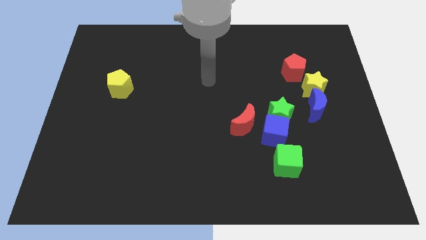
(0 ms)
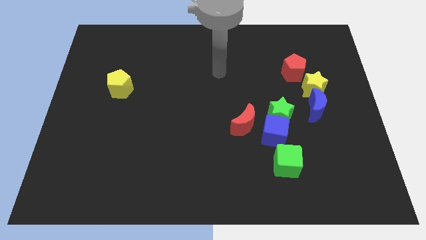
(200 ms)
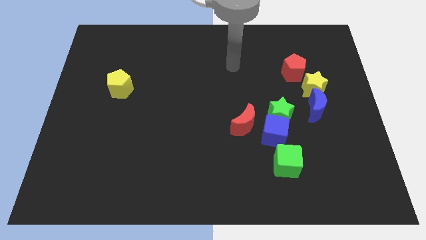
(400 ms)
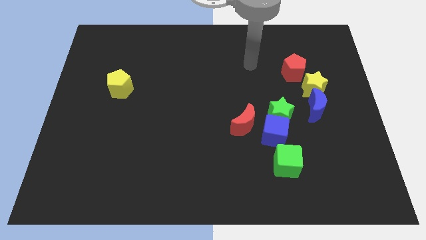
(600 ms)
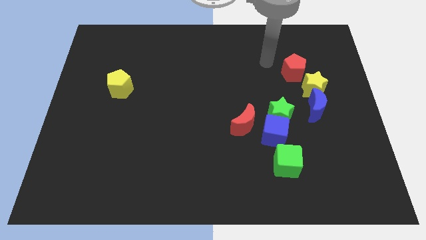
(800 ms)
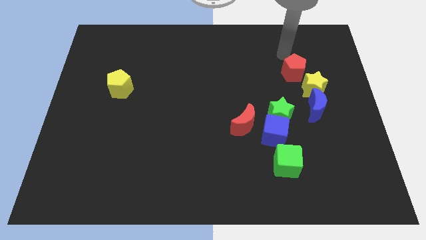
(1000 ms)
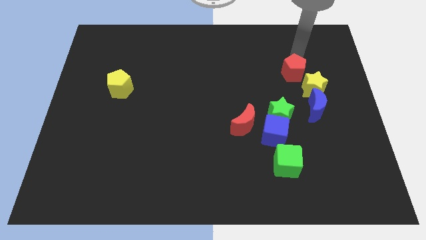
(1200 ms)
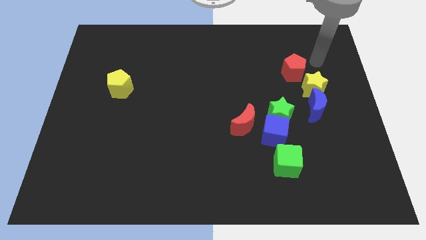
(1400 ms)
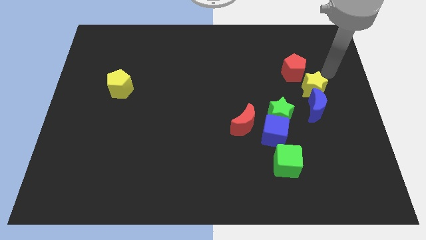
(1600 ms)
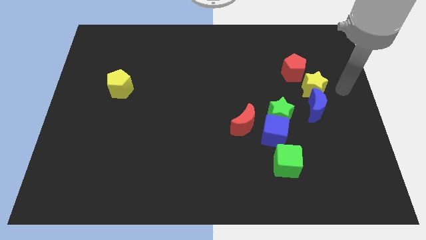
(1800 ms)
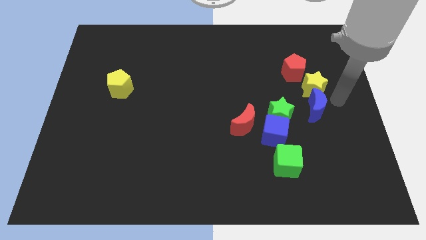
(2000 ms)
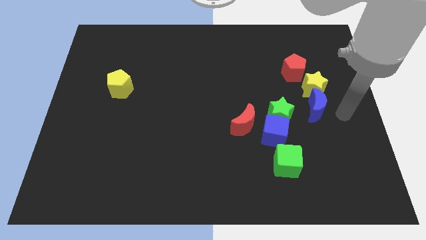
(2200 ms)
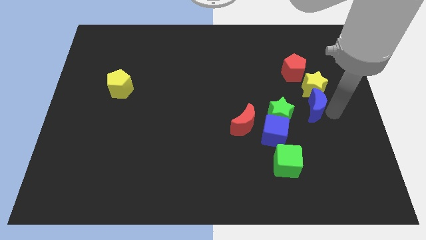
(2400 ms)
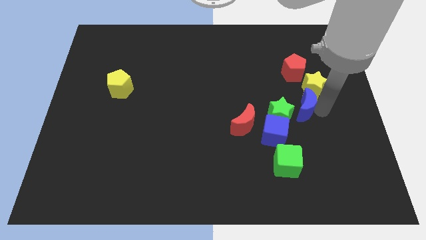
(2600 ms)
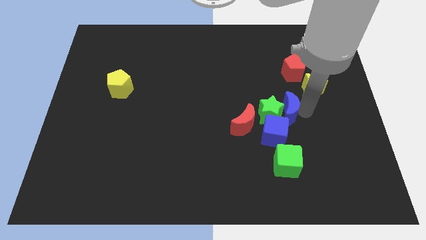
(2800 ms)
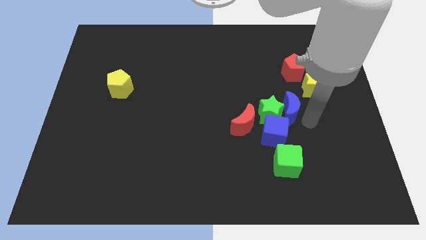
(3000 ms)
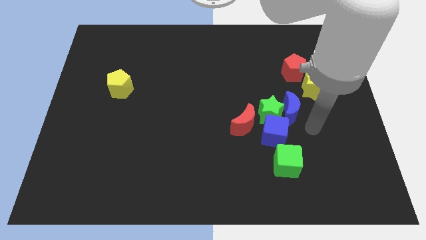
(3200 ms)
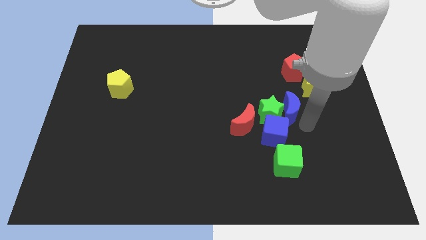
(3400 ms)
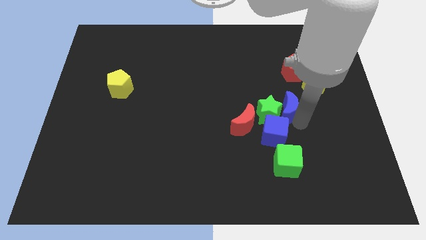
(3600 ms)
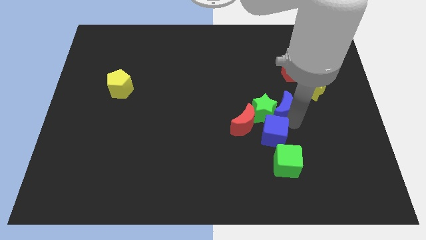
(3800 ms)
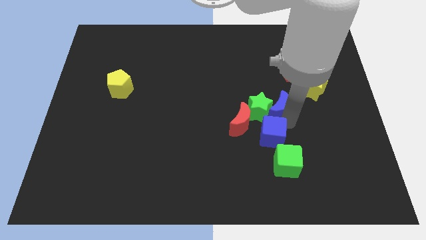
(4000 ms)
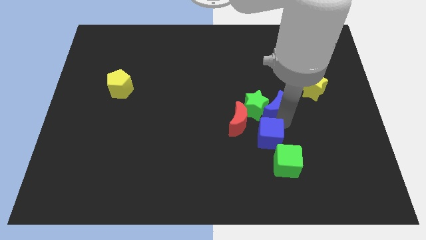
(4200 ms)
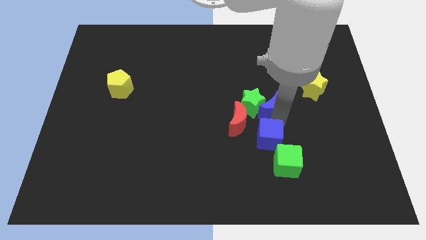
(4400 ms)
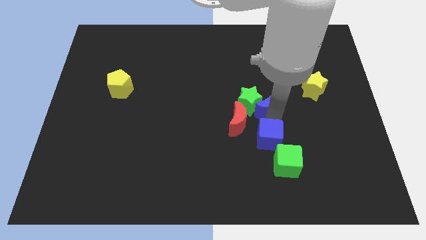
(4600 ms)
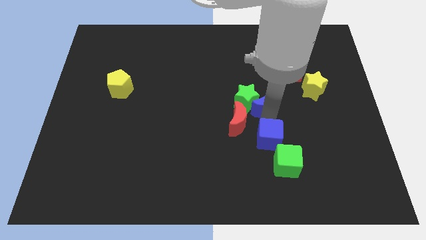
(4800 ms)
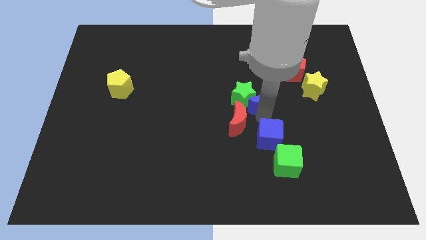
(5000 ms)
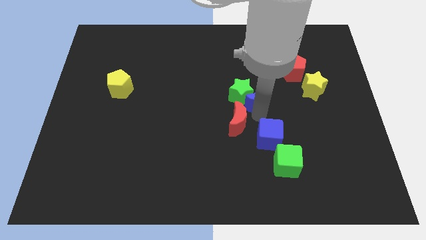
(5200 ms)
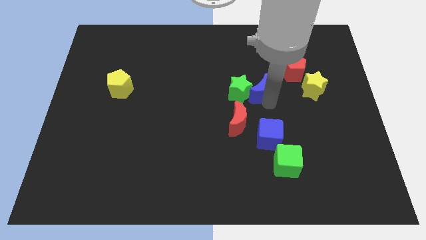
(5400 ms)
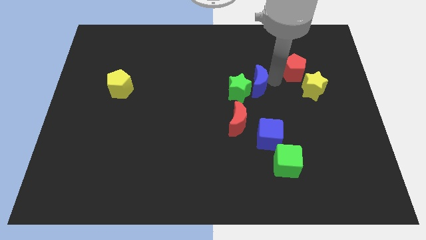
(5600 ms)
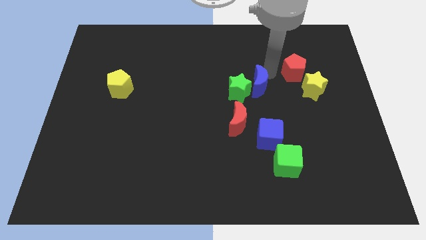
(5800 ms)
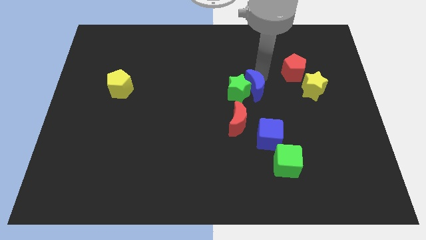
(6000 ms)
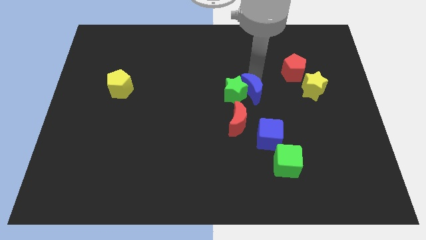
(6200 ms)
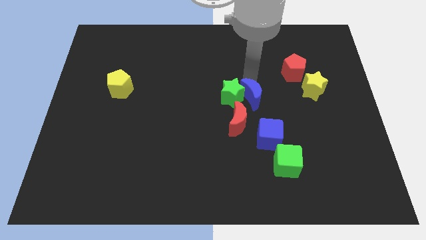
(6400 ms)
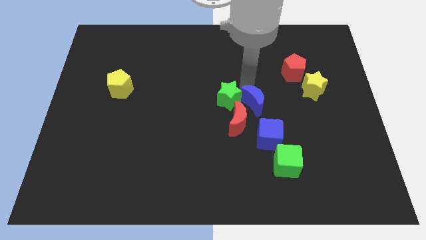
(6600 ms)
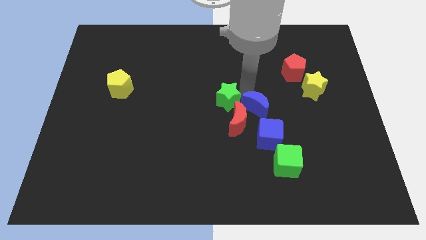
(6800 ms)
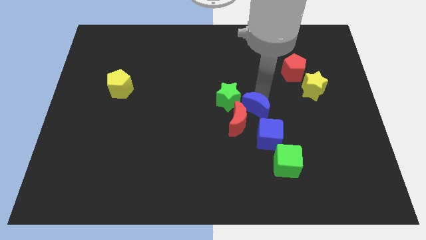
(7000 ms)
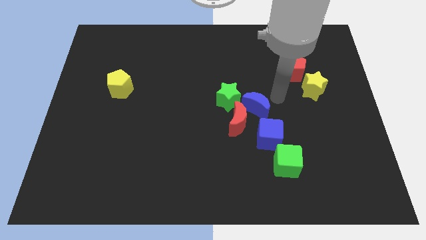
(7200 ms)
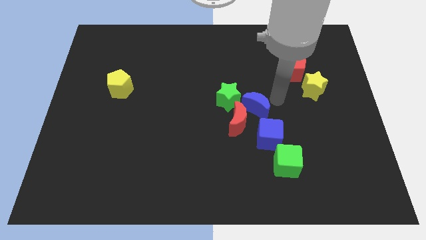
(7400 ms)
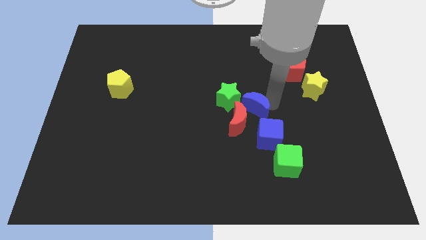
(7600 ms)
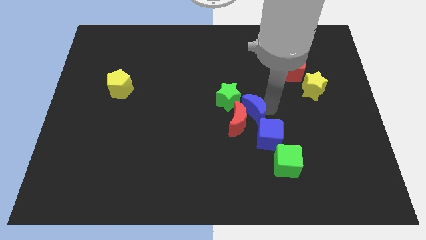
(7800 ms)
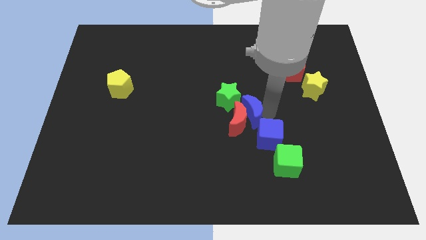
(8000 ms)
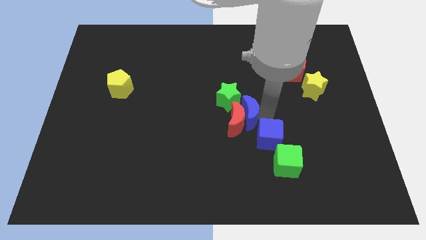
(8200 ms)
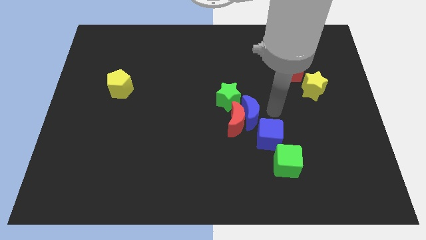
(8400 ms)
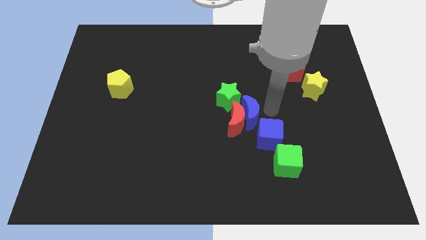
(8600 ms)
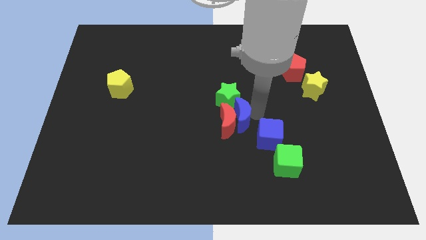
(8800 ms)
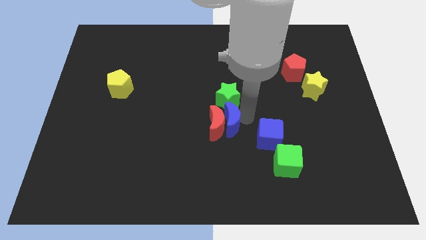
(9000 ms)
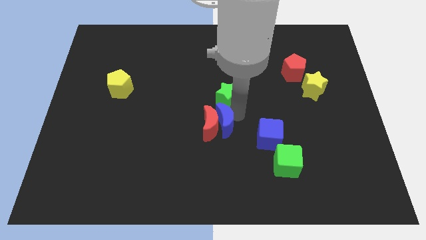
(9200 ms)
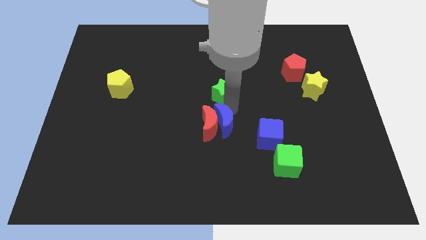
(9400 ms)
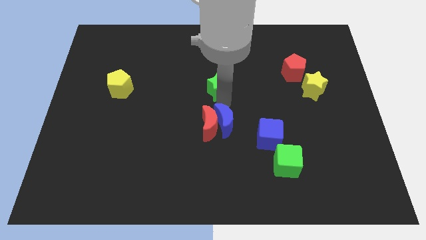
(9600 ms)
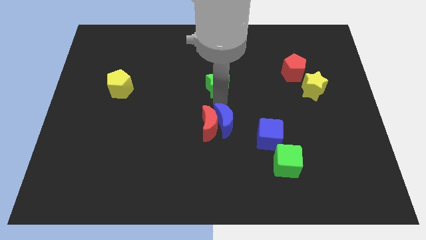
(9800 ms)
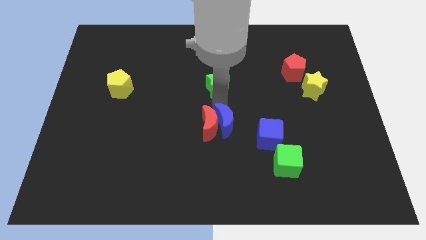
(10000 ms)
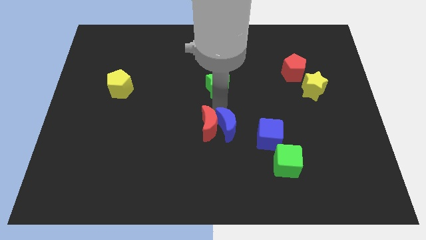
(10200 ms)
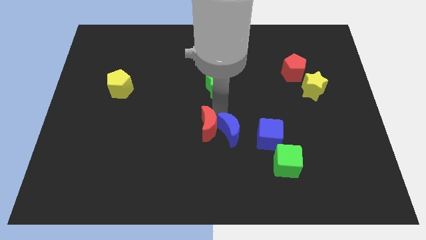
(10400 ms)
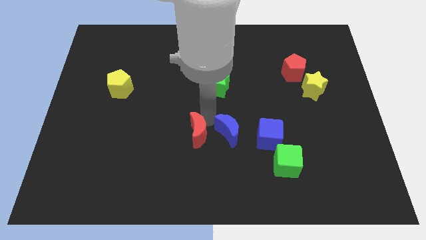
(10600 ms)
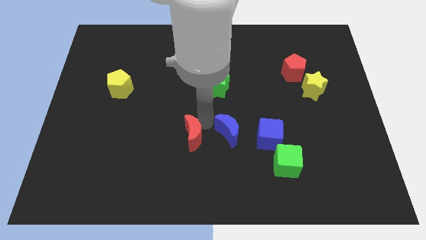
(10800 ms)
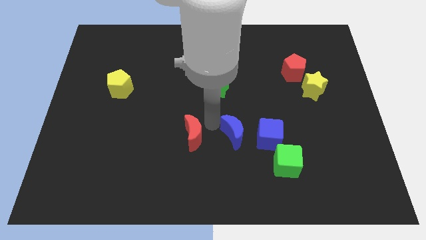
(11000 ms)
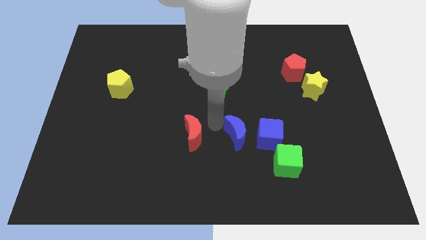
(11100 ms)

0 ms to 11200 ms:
push the blue moon to the top left of the green cube

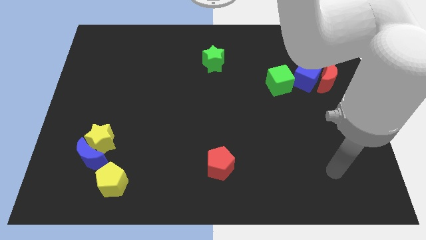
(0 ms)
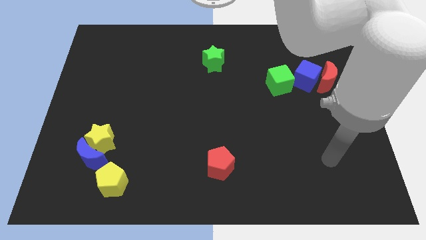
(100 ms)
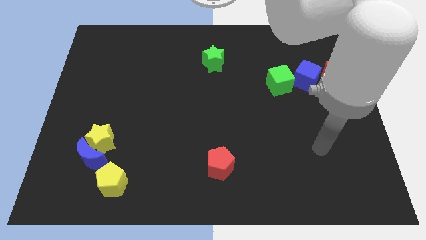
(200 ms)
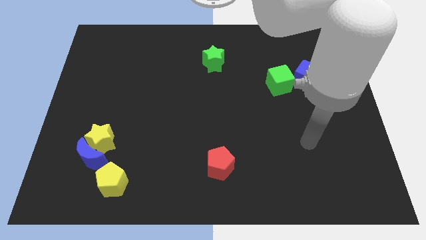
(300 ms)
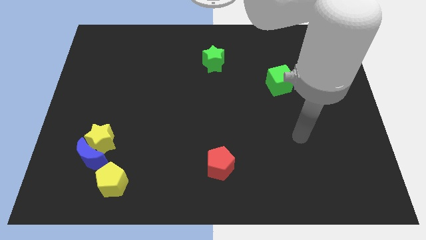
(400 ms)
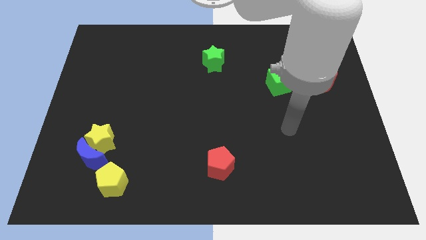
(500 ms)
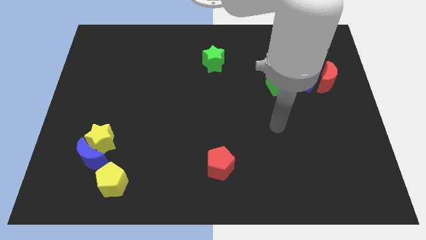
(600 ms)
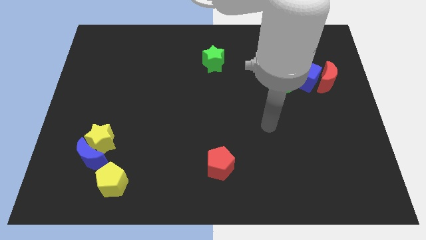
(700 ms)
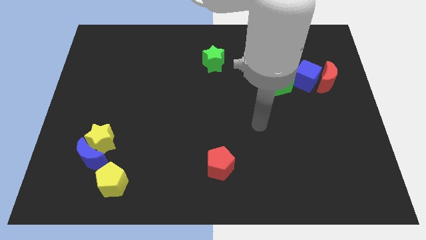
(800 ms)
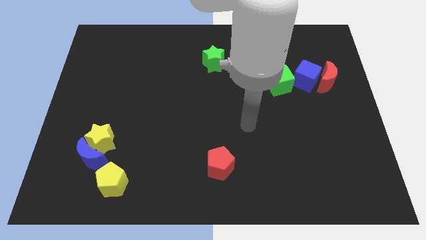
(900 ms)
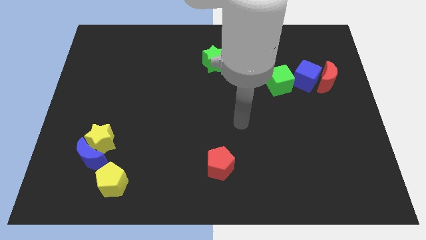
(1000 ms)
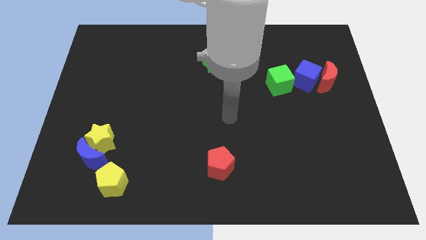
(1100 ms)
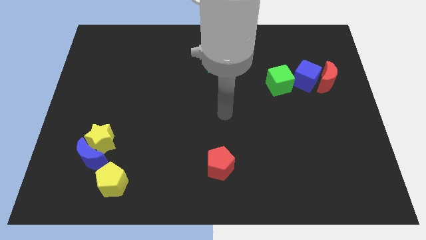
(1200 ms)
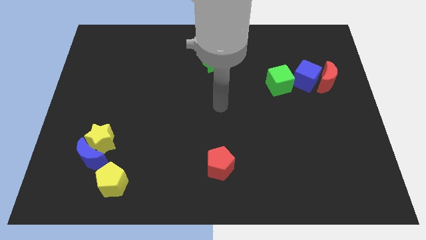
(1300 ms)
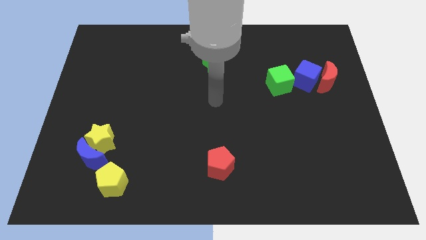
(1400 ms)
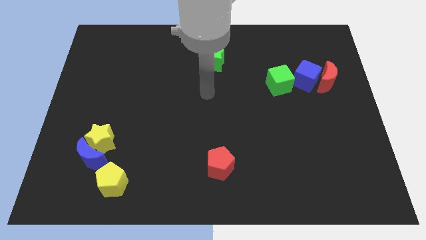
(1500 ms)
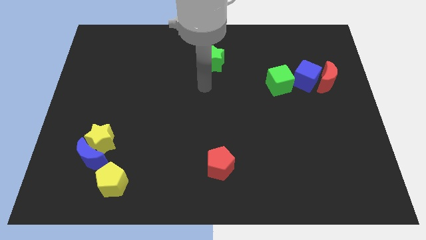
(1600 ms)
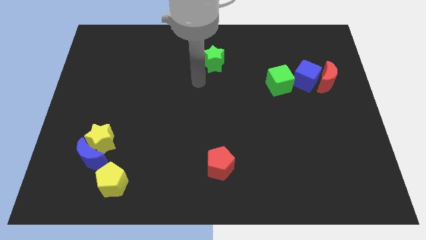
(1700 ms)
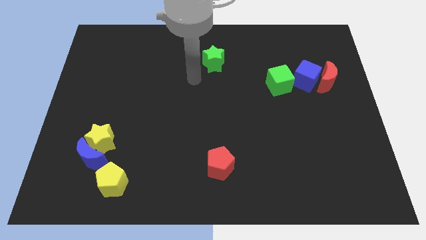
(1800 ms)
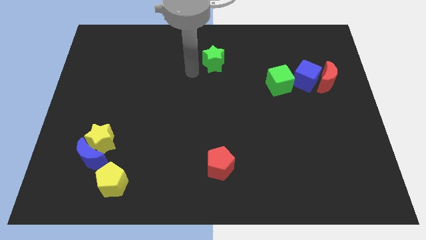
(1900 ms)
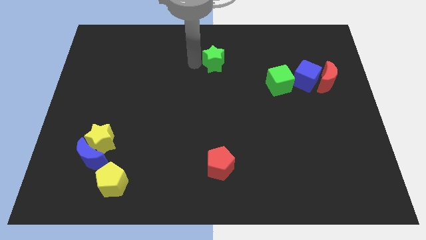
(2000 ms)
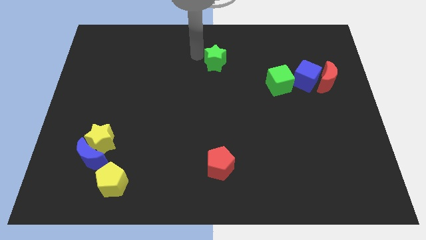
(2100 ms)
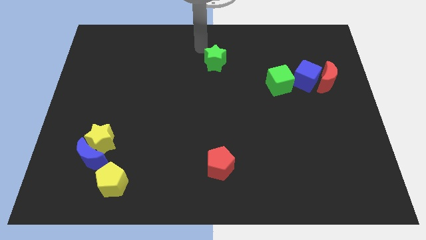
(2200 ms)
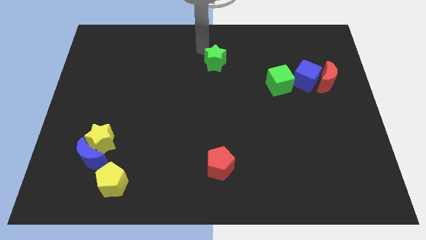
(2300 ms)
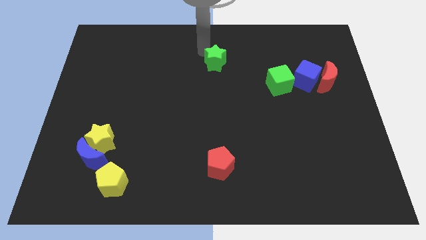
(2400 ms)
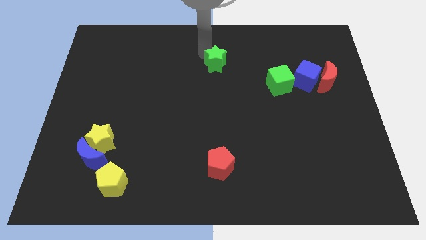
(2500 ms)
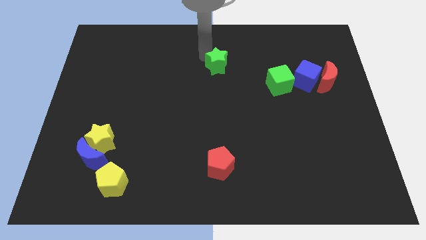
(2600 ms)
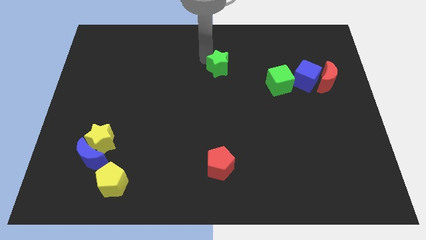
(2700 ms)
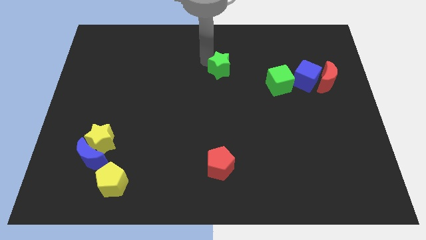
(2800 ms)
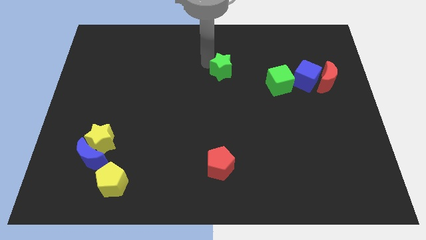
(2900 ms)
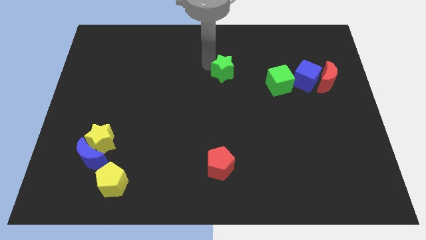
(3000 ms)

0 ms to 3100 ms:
move the green star just left of the green cube
